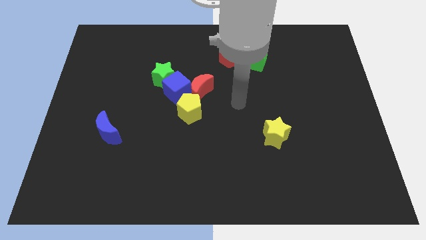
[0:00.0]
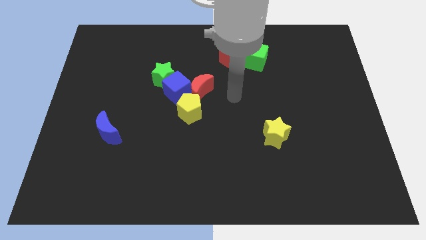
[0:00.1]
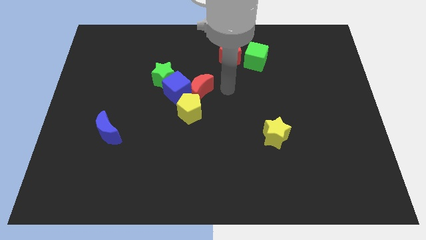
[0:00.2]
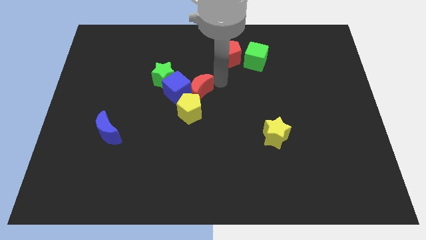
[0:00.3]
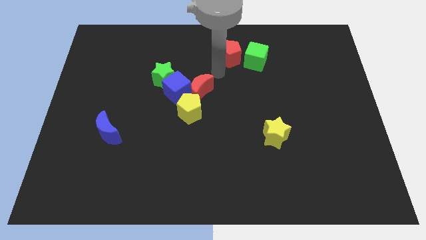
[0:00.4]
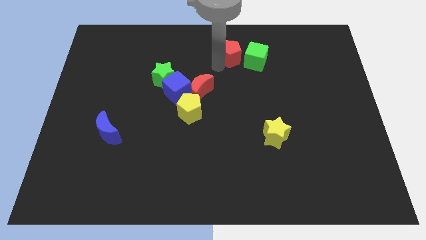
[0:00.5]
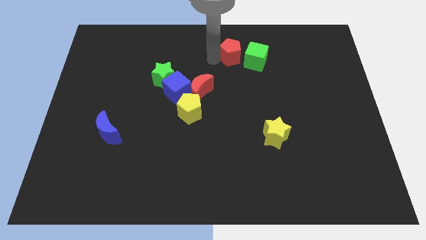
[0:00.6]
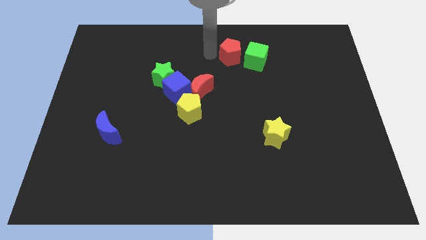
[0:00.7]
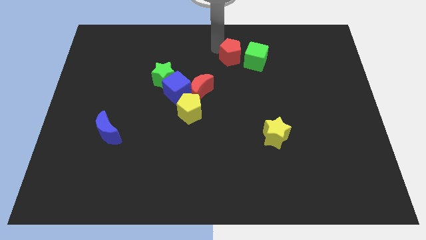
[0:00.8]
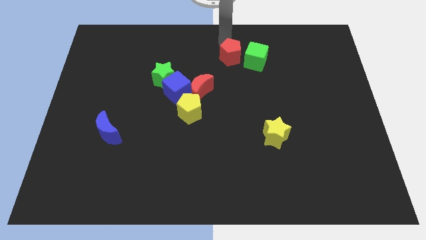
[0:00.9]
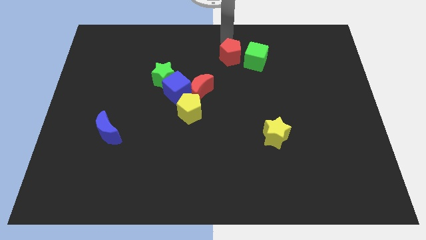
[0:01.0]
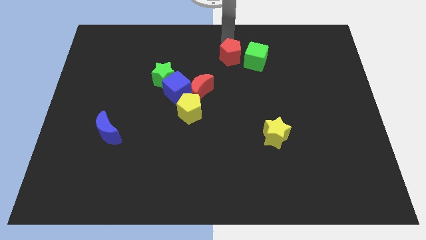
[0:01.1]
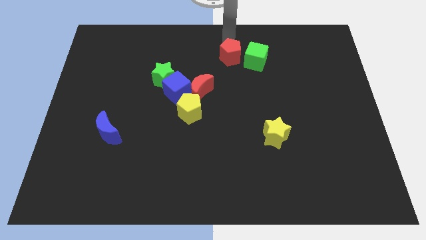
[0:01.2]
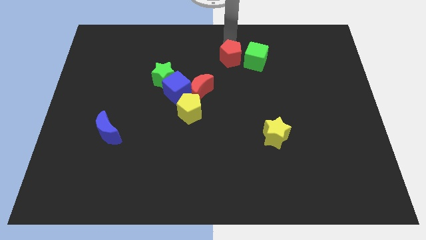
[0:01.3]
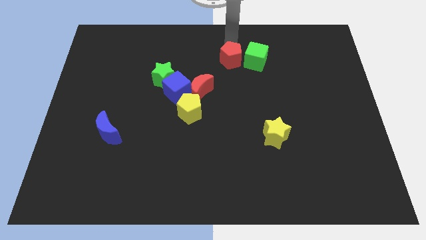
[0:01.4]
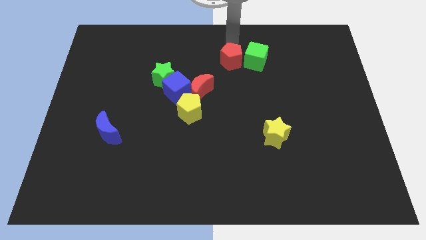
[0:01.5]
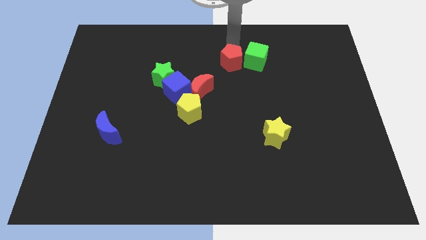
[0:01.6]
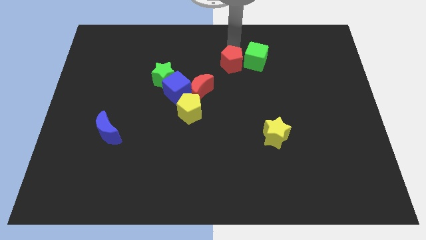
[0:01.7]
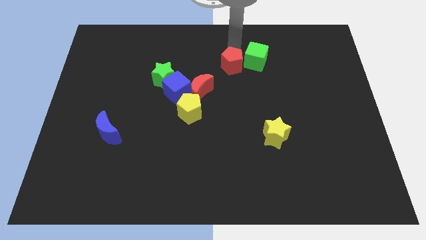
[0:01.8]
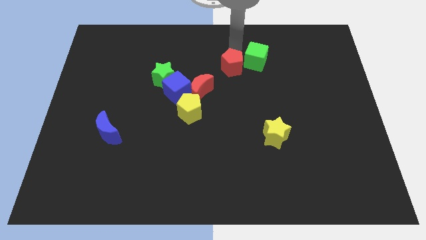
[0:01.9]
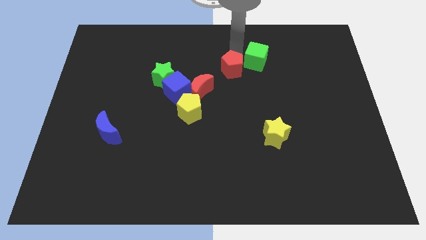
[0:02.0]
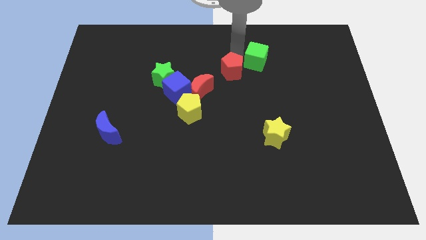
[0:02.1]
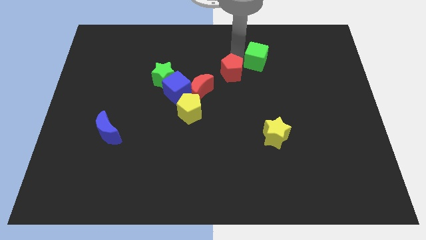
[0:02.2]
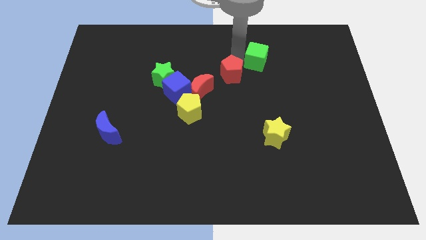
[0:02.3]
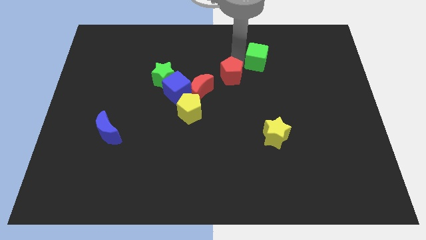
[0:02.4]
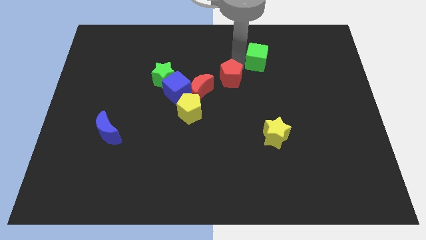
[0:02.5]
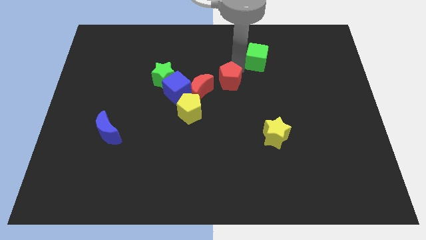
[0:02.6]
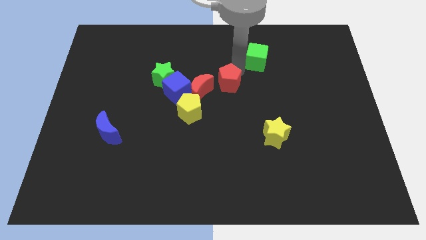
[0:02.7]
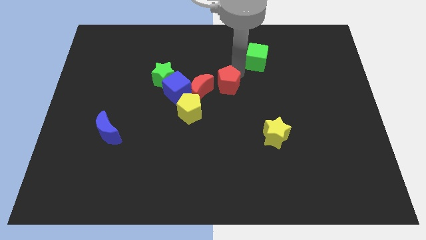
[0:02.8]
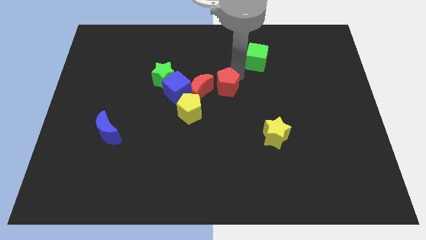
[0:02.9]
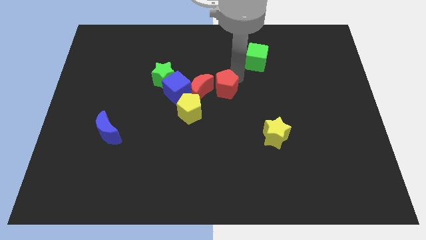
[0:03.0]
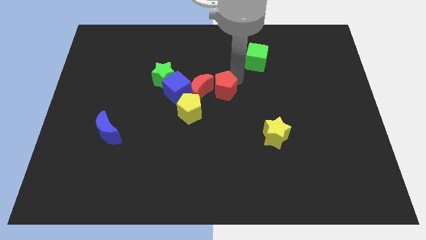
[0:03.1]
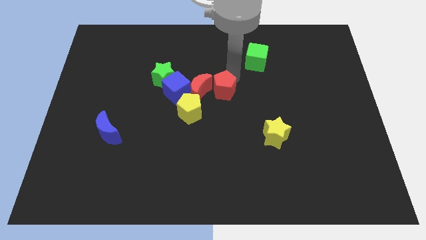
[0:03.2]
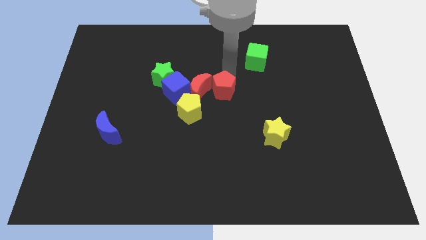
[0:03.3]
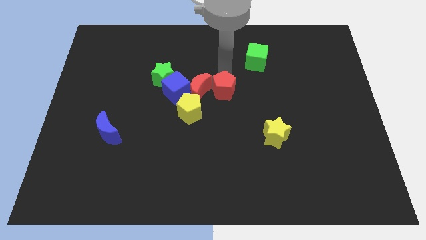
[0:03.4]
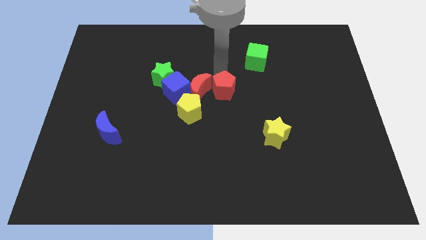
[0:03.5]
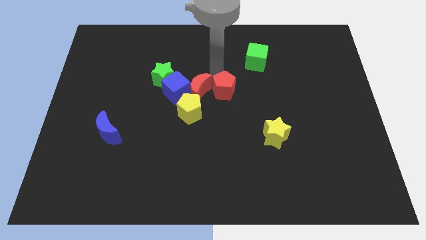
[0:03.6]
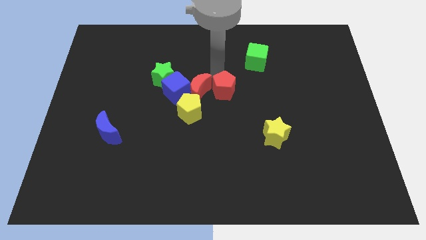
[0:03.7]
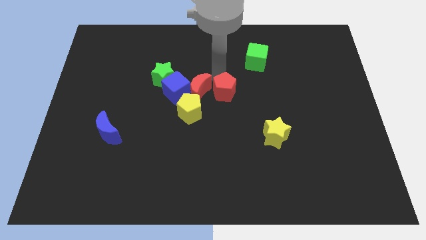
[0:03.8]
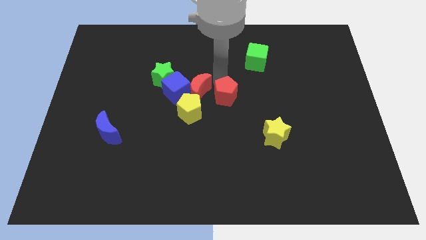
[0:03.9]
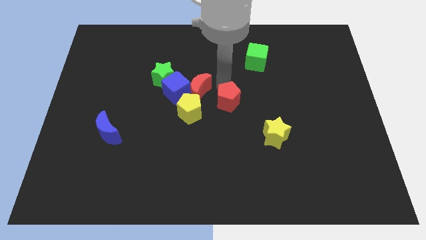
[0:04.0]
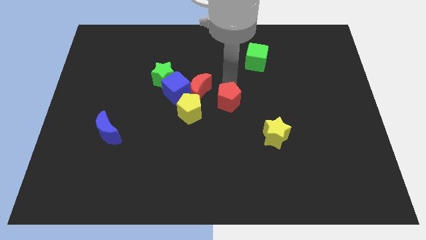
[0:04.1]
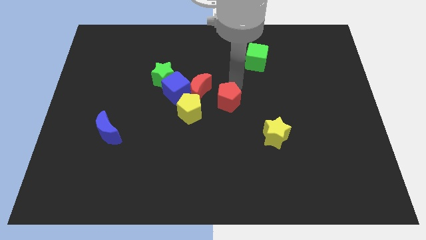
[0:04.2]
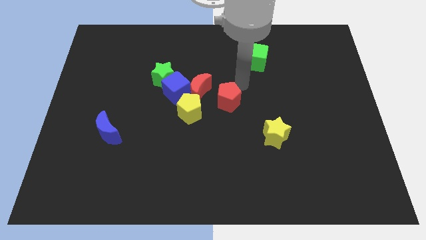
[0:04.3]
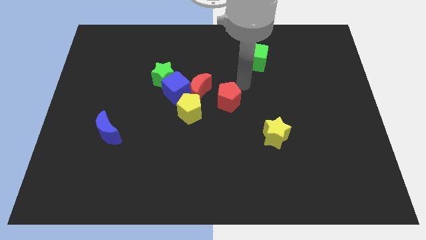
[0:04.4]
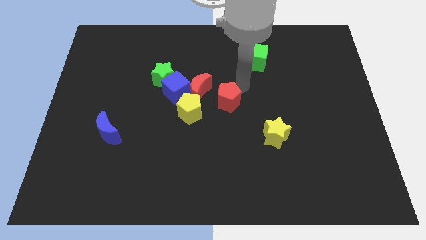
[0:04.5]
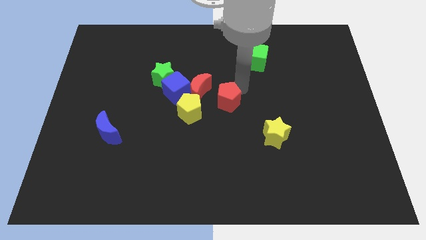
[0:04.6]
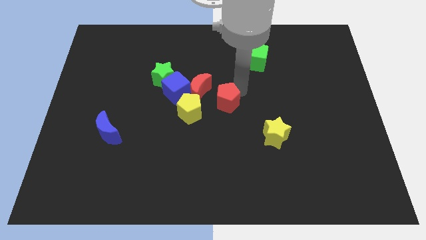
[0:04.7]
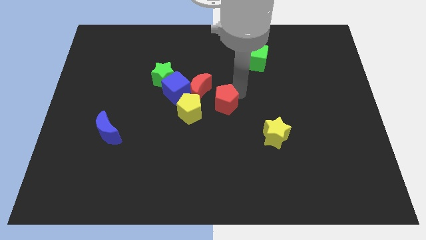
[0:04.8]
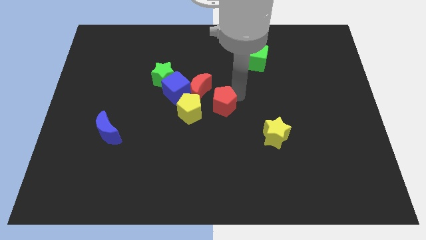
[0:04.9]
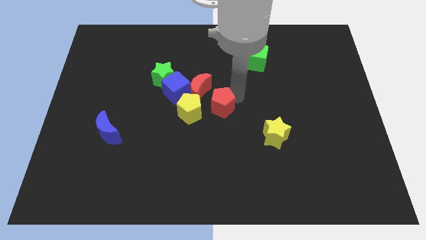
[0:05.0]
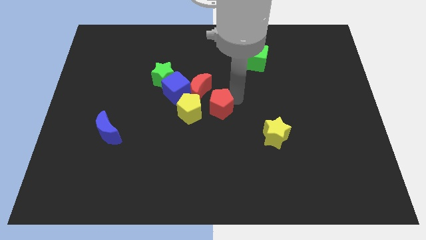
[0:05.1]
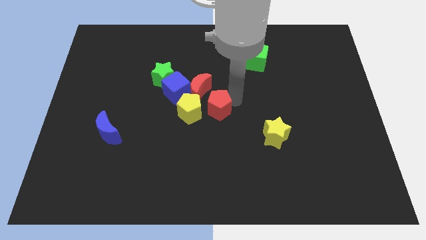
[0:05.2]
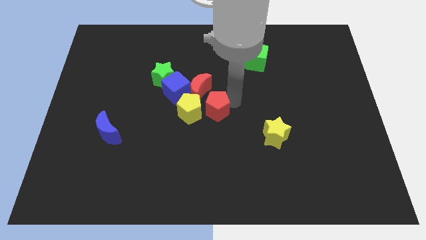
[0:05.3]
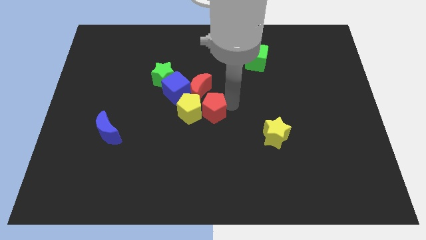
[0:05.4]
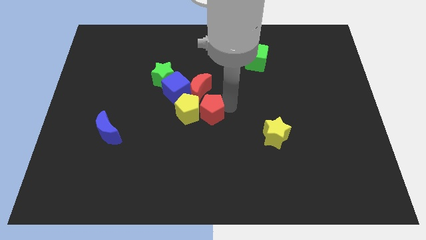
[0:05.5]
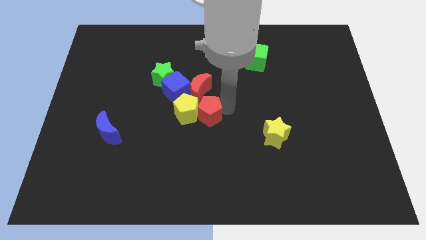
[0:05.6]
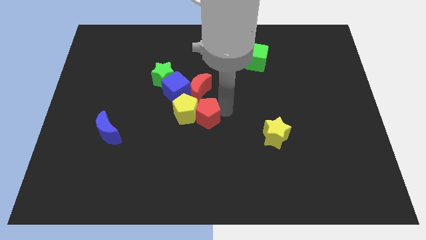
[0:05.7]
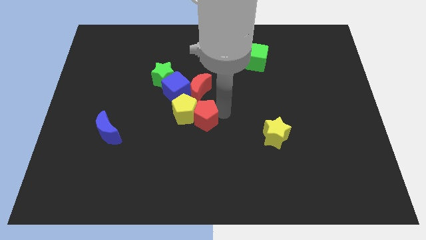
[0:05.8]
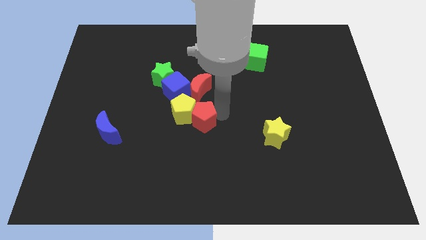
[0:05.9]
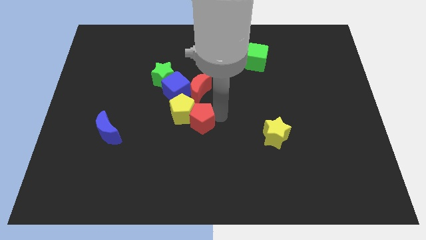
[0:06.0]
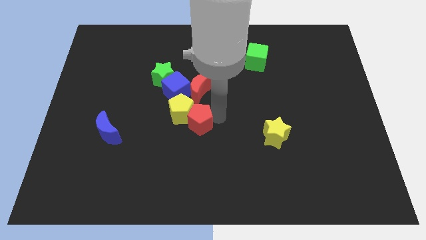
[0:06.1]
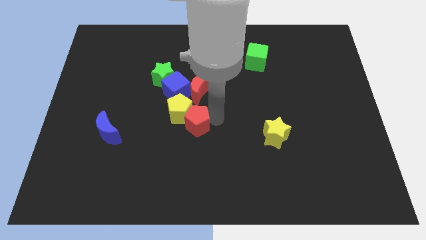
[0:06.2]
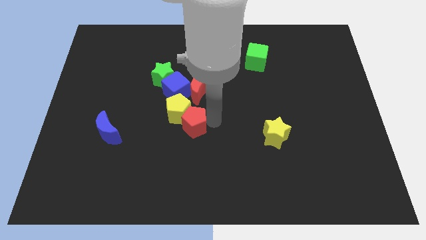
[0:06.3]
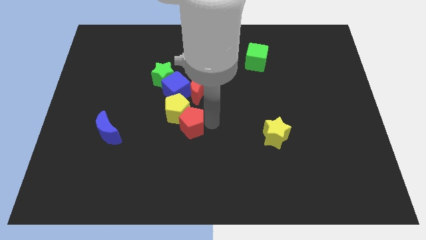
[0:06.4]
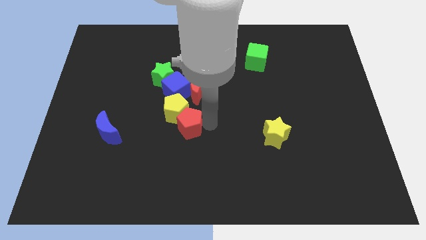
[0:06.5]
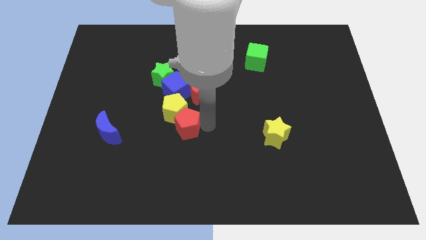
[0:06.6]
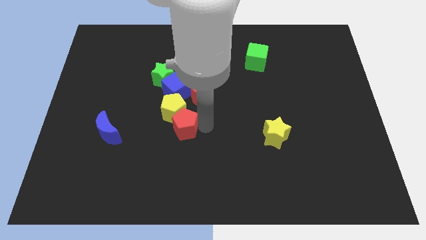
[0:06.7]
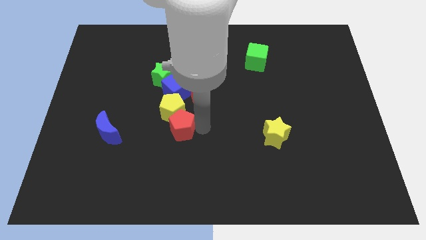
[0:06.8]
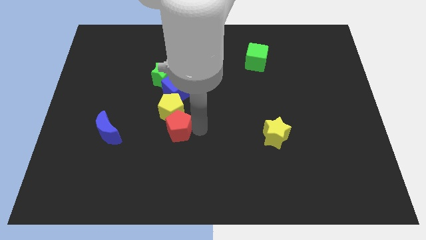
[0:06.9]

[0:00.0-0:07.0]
put the red pentagon just right of the blue moon

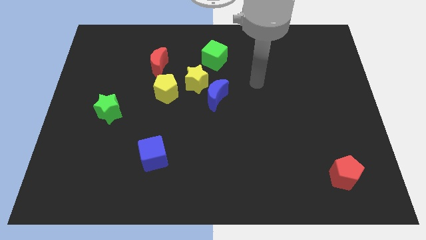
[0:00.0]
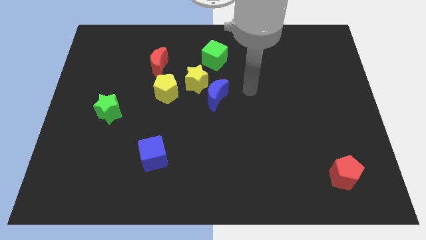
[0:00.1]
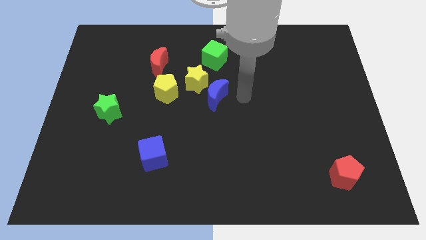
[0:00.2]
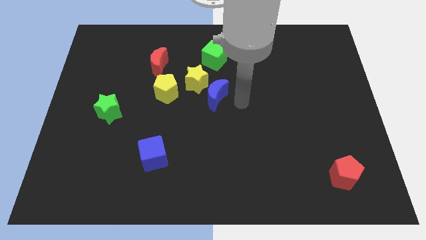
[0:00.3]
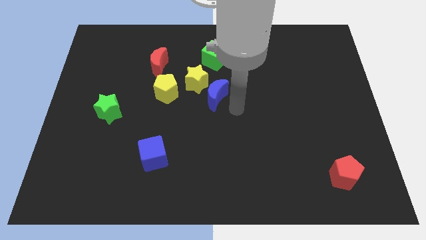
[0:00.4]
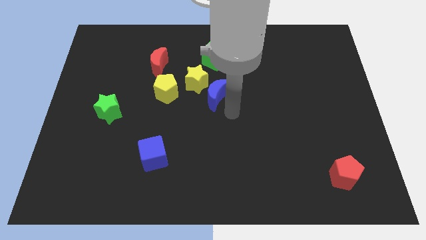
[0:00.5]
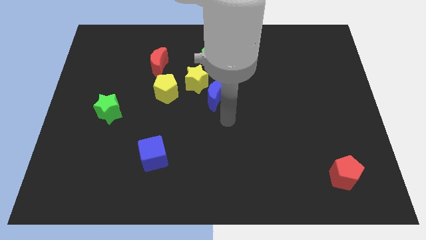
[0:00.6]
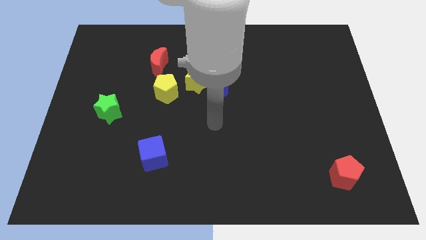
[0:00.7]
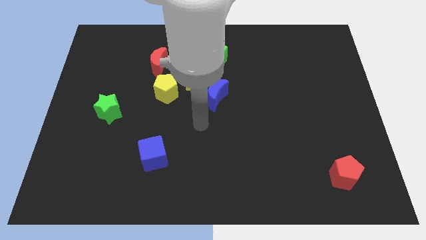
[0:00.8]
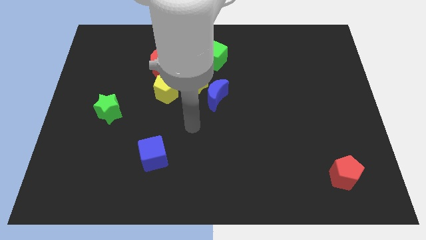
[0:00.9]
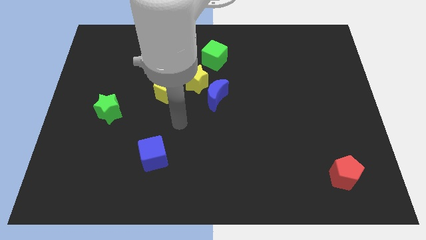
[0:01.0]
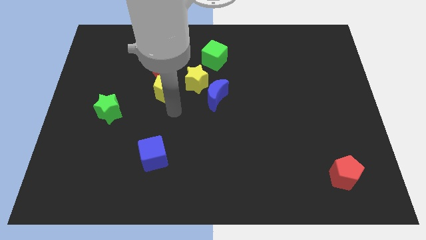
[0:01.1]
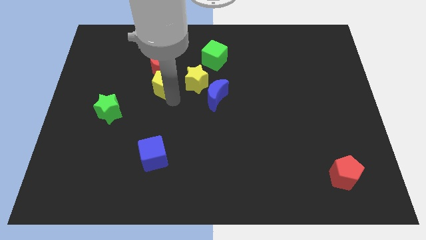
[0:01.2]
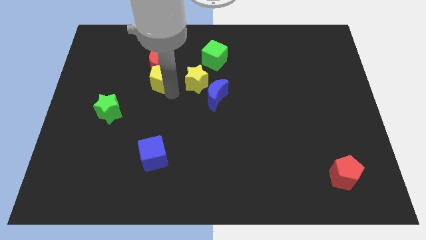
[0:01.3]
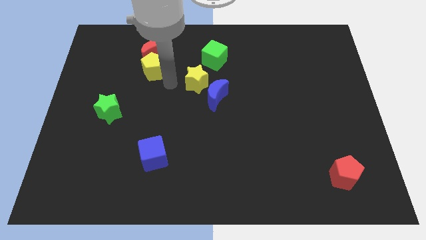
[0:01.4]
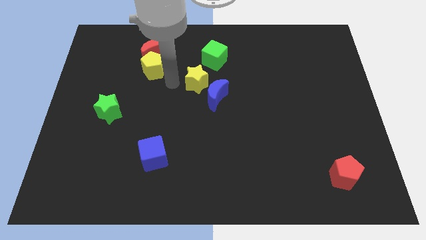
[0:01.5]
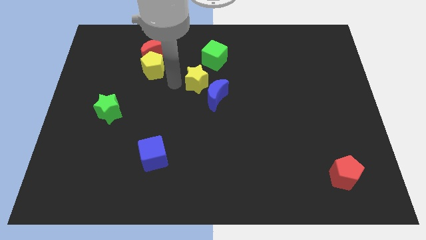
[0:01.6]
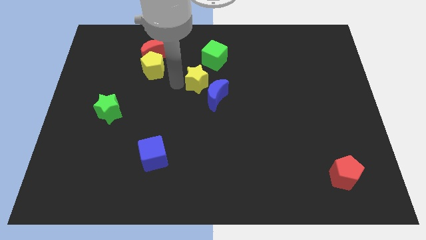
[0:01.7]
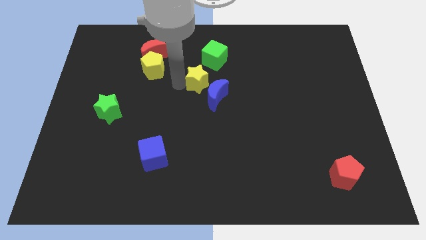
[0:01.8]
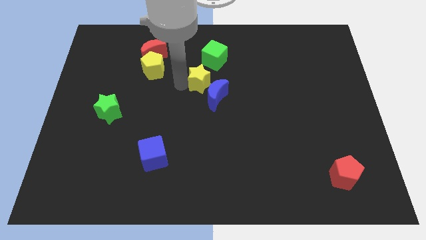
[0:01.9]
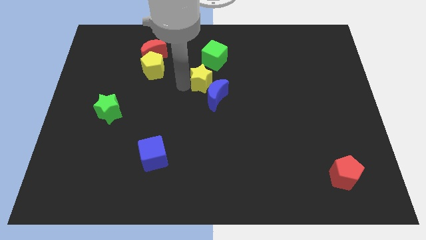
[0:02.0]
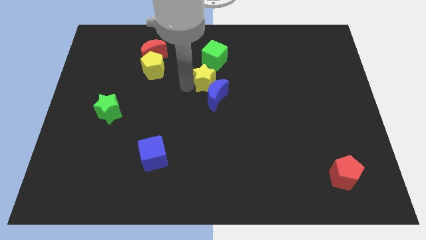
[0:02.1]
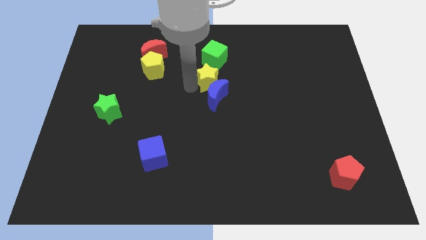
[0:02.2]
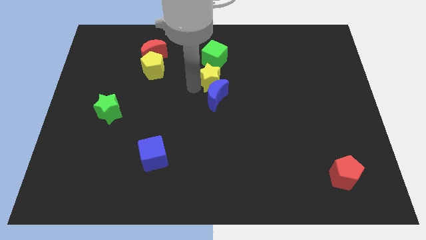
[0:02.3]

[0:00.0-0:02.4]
put the yellow star to the top right side of the blue moon
